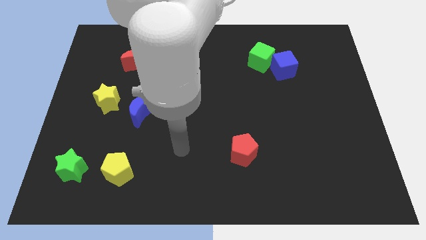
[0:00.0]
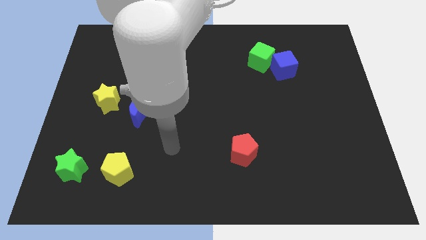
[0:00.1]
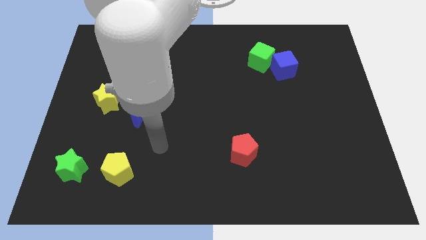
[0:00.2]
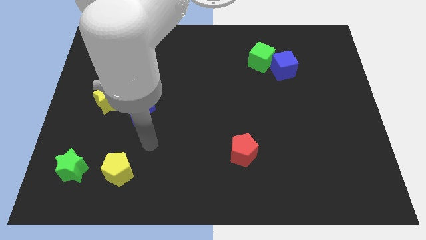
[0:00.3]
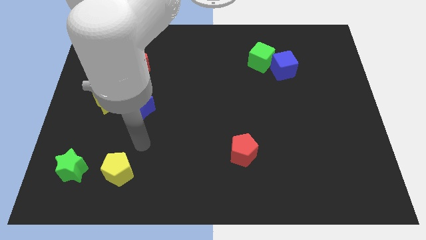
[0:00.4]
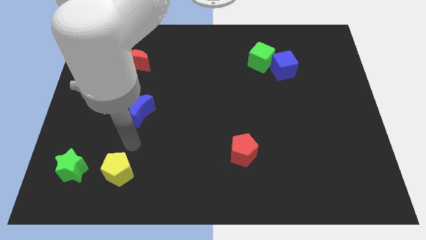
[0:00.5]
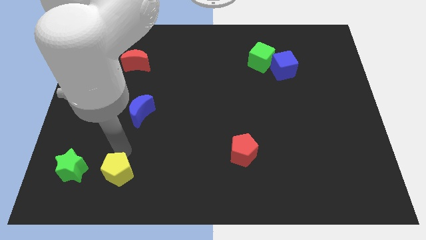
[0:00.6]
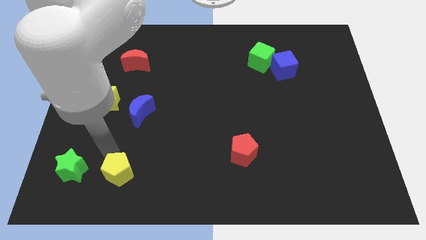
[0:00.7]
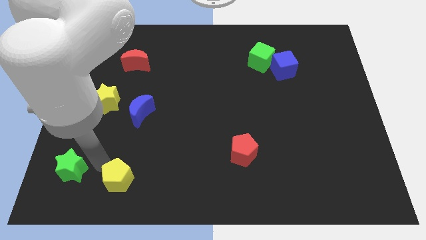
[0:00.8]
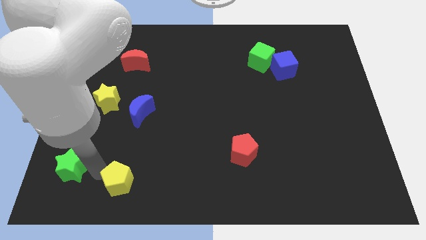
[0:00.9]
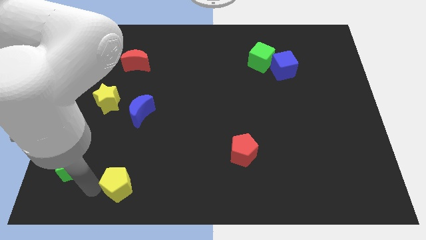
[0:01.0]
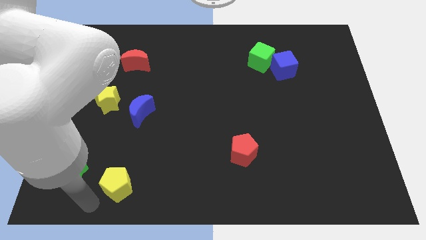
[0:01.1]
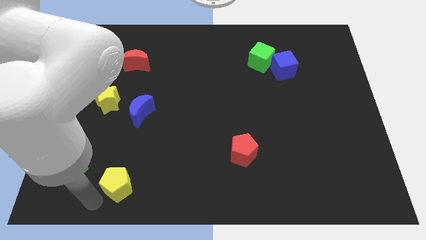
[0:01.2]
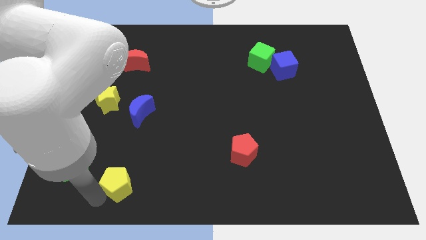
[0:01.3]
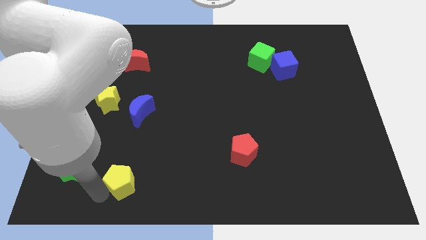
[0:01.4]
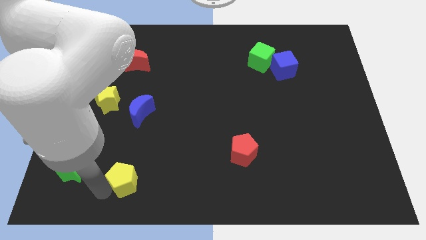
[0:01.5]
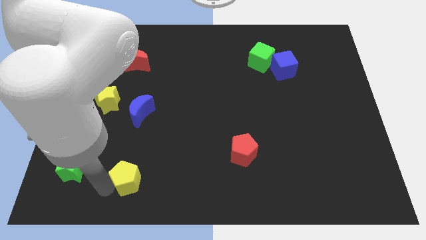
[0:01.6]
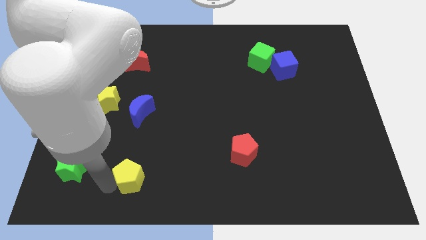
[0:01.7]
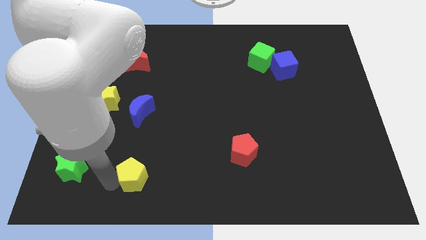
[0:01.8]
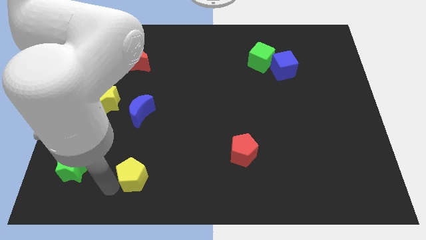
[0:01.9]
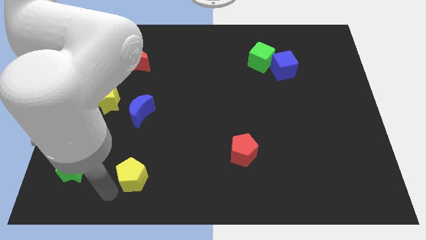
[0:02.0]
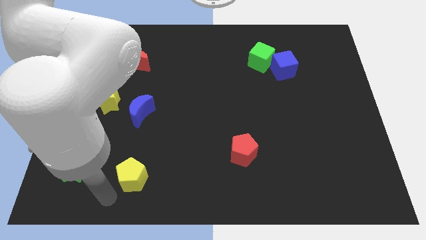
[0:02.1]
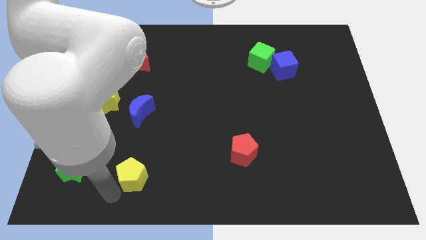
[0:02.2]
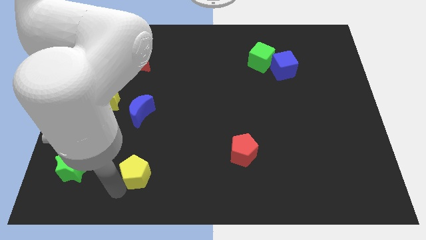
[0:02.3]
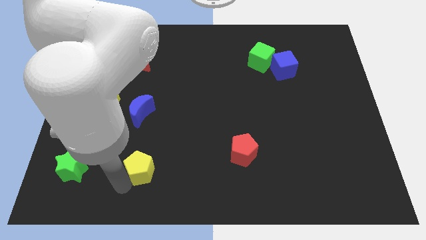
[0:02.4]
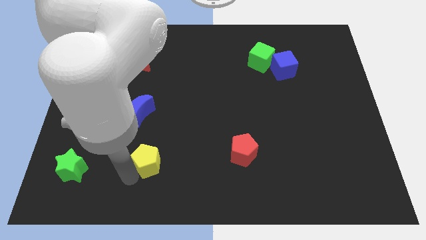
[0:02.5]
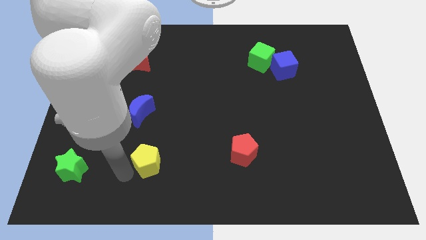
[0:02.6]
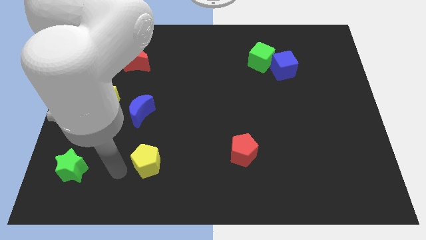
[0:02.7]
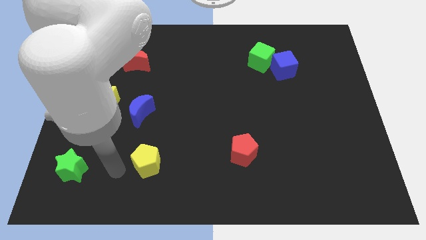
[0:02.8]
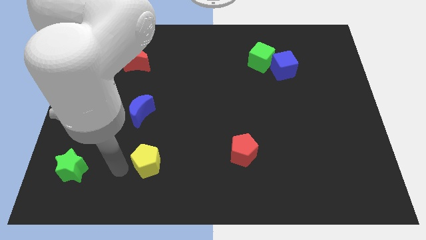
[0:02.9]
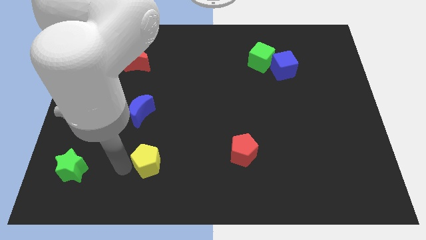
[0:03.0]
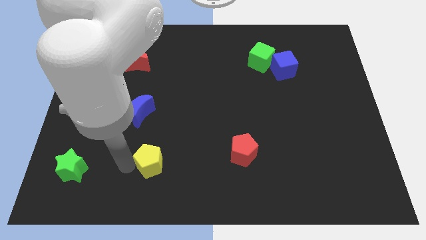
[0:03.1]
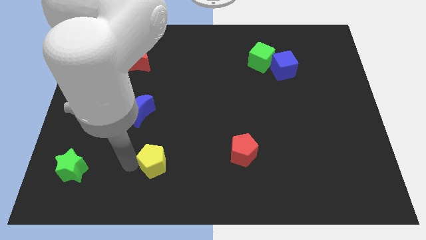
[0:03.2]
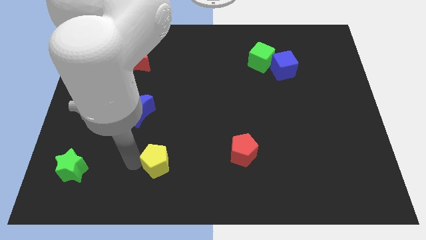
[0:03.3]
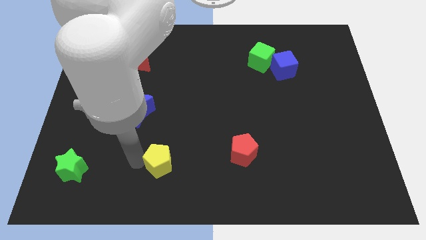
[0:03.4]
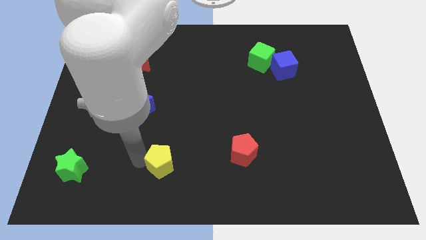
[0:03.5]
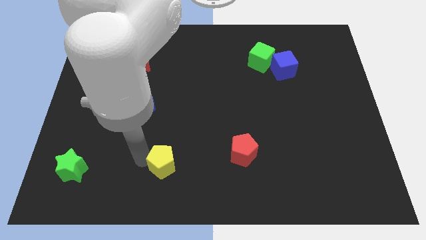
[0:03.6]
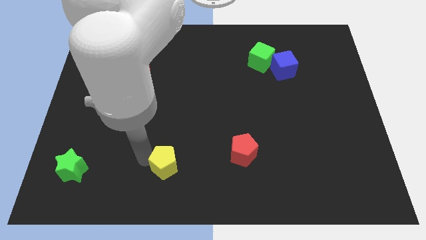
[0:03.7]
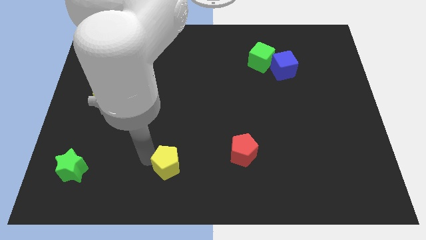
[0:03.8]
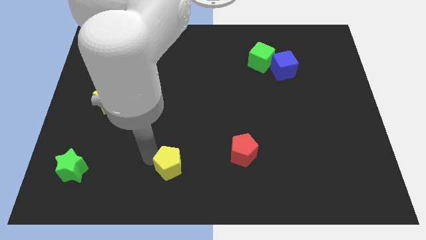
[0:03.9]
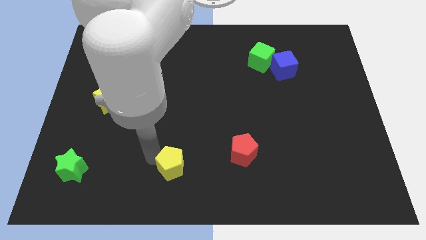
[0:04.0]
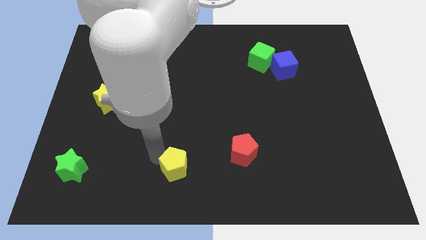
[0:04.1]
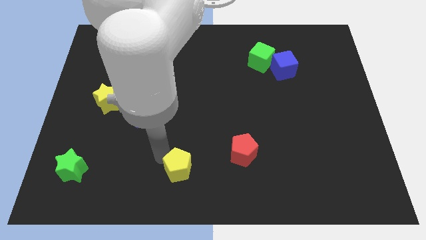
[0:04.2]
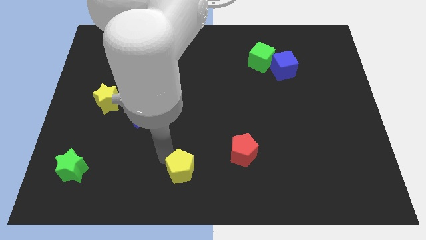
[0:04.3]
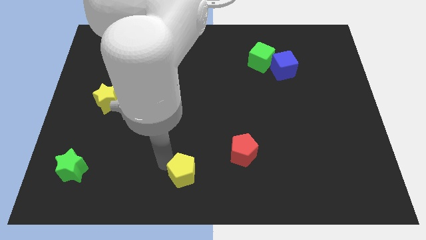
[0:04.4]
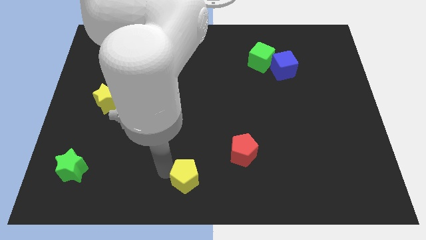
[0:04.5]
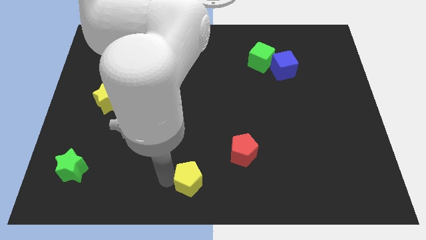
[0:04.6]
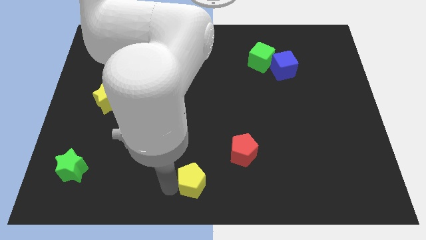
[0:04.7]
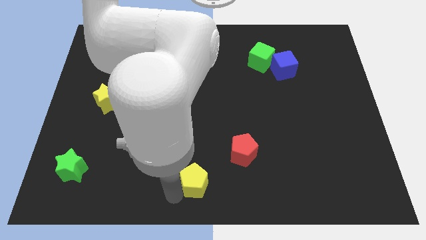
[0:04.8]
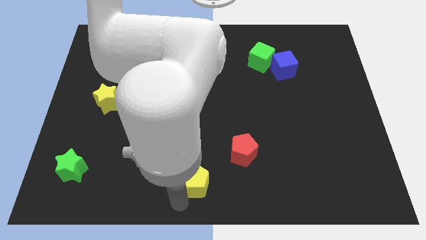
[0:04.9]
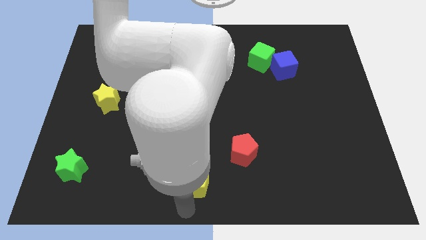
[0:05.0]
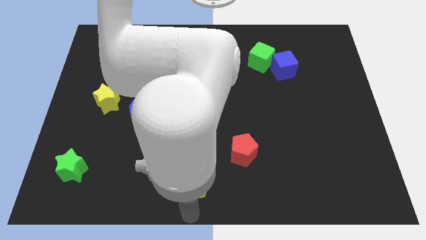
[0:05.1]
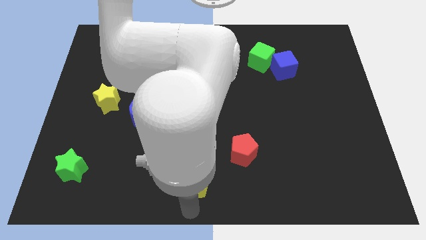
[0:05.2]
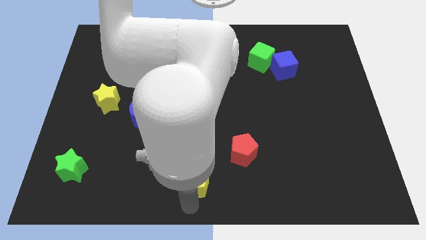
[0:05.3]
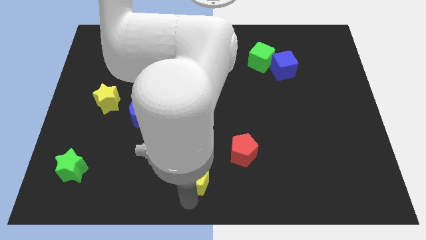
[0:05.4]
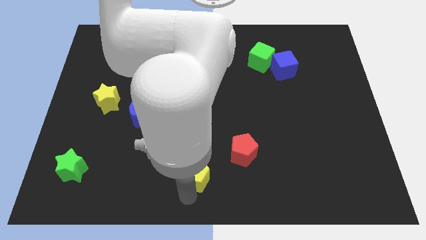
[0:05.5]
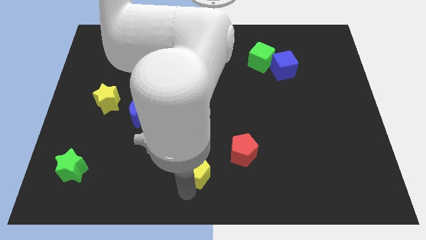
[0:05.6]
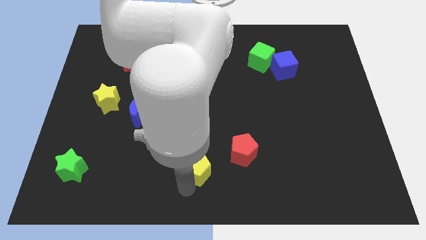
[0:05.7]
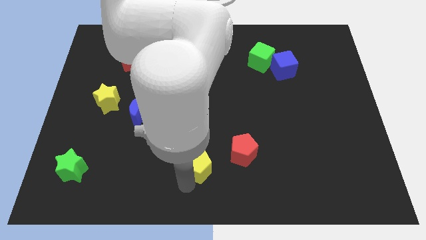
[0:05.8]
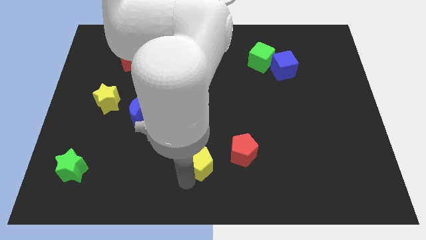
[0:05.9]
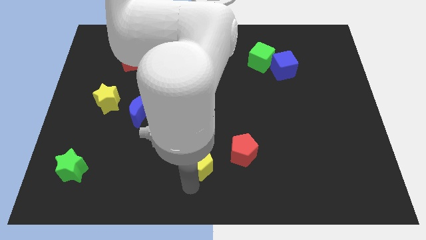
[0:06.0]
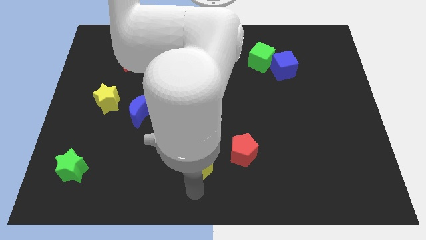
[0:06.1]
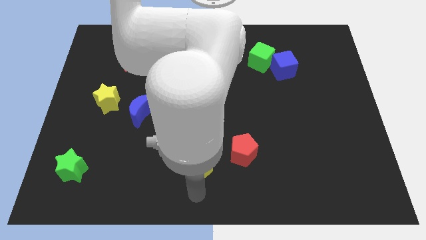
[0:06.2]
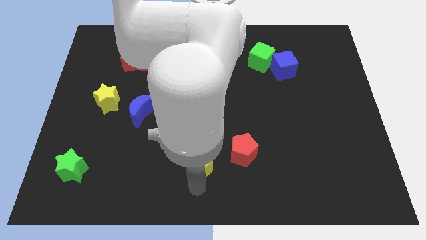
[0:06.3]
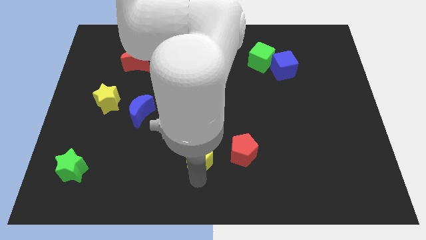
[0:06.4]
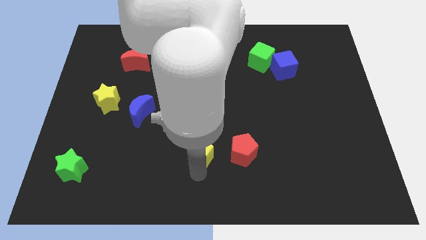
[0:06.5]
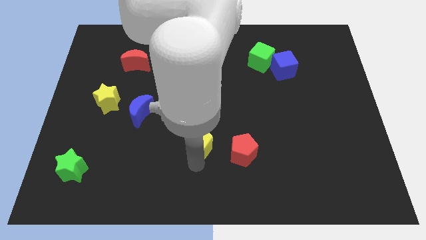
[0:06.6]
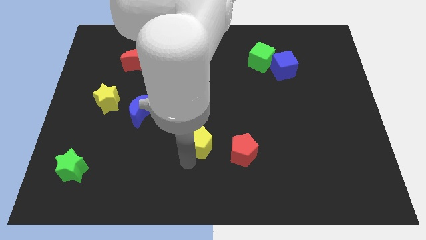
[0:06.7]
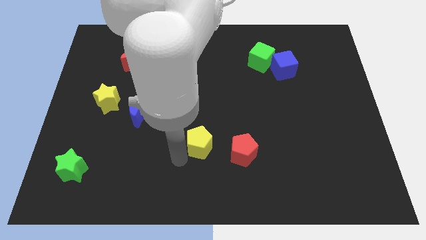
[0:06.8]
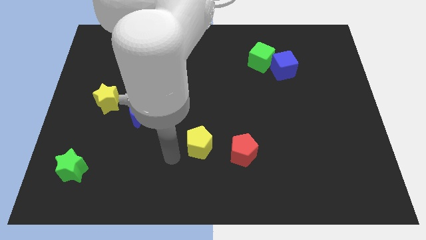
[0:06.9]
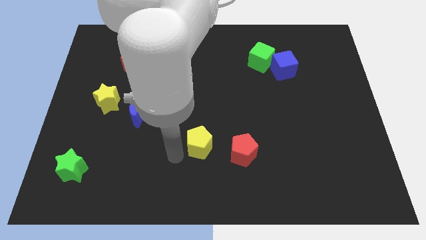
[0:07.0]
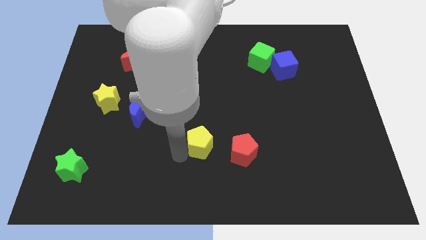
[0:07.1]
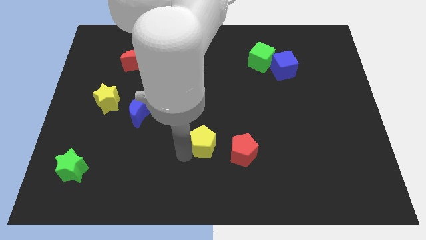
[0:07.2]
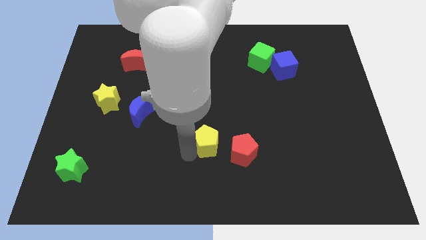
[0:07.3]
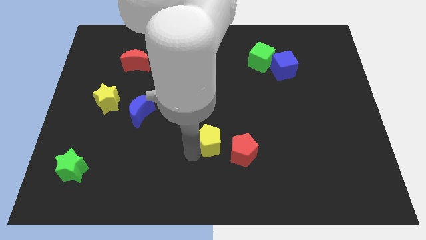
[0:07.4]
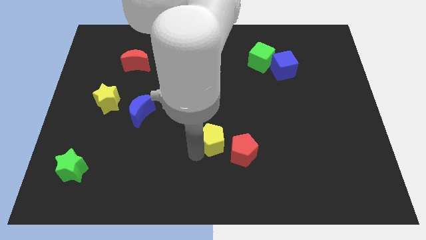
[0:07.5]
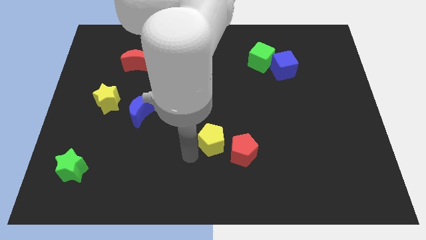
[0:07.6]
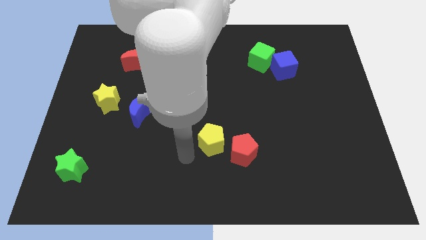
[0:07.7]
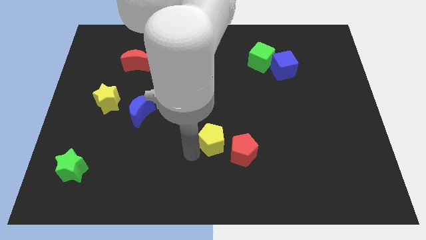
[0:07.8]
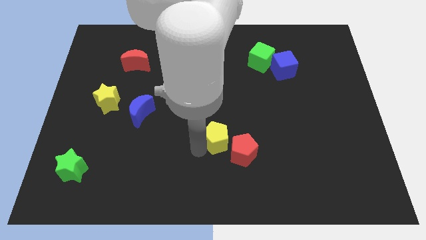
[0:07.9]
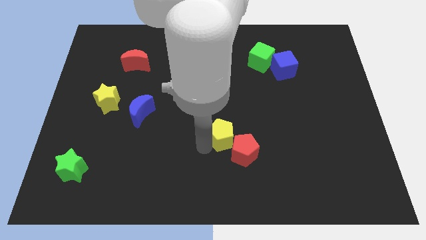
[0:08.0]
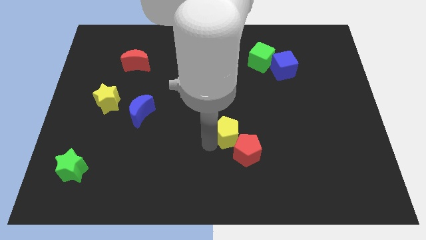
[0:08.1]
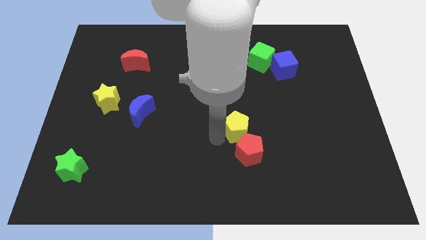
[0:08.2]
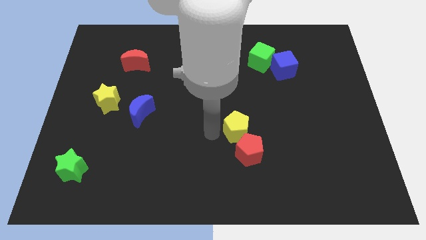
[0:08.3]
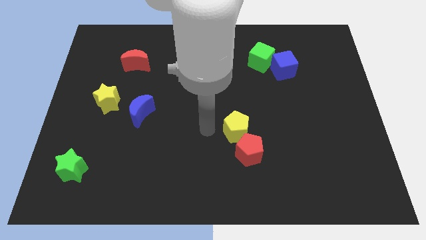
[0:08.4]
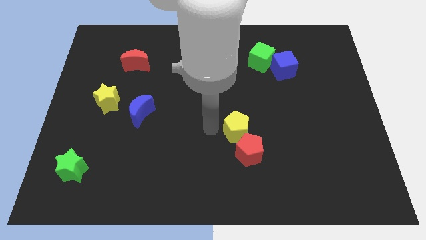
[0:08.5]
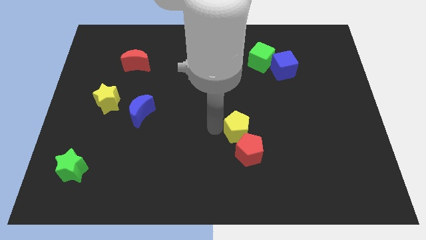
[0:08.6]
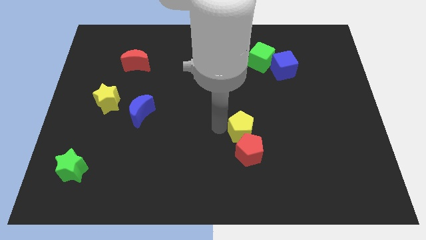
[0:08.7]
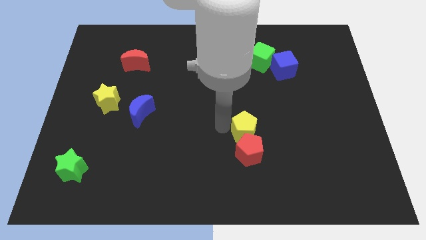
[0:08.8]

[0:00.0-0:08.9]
slide the yellow pentagon diagonally up and to the right of the red pentagon
